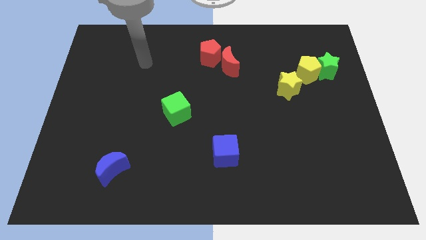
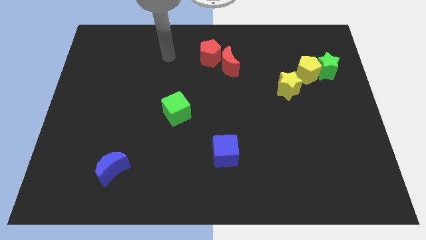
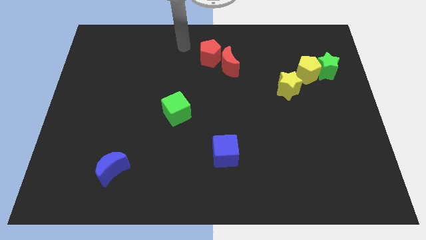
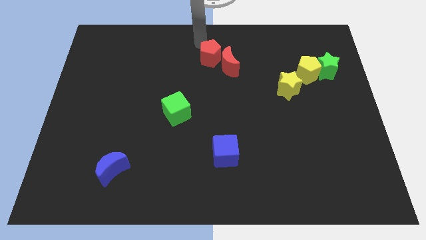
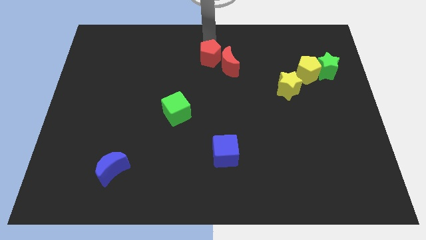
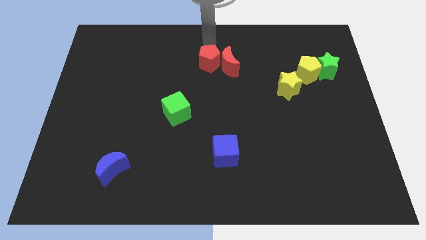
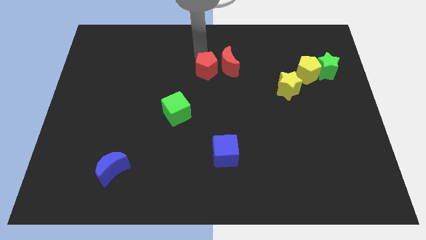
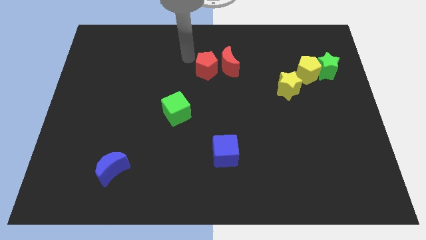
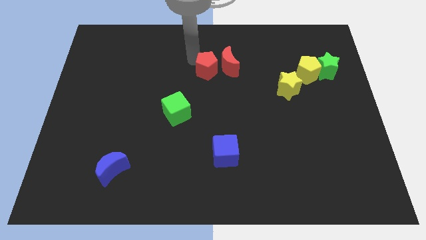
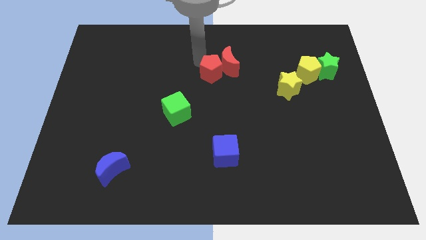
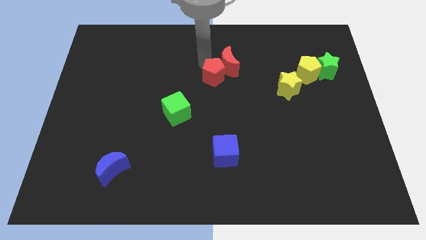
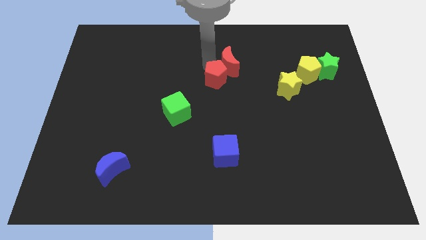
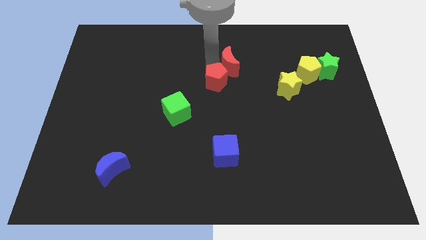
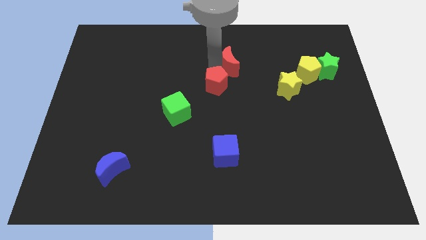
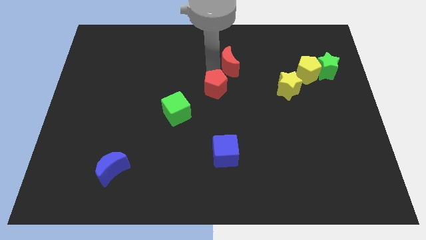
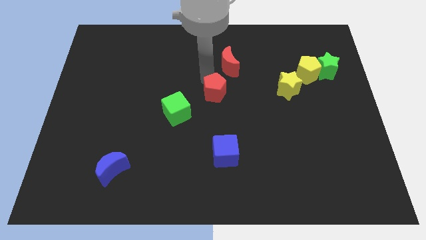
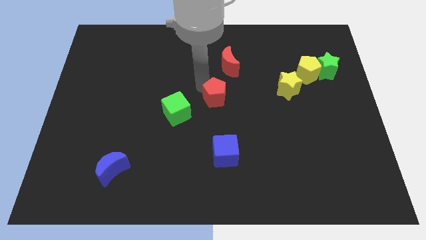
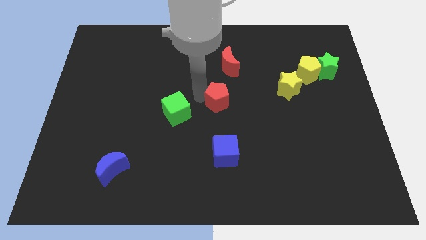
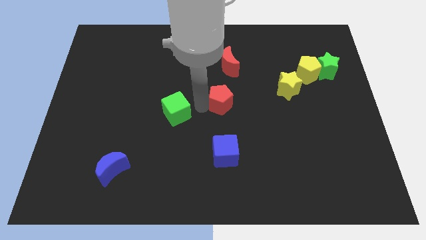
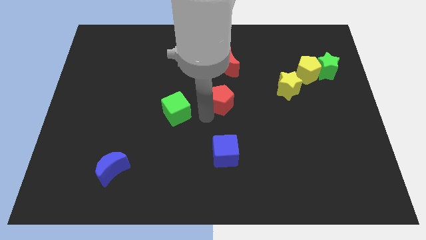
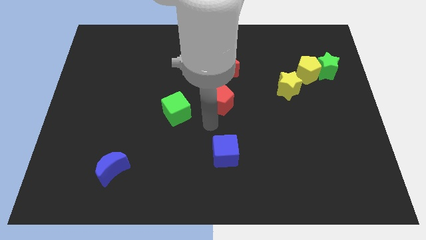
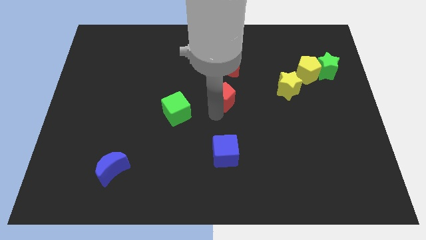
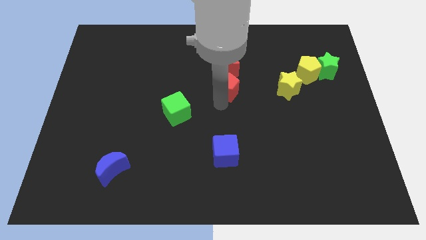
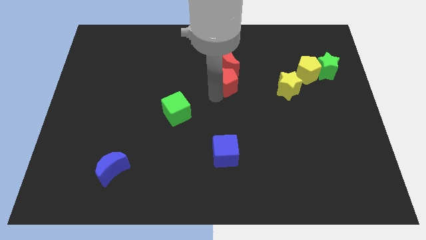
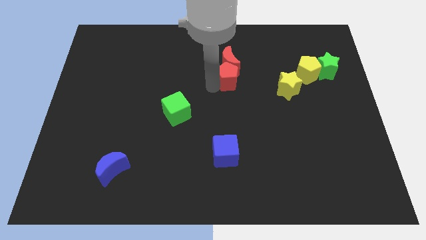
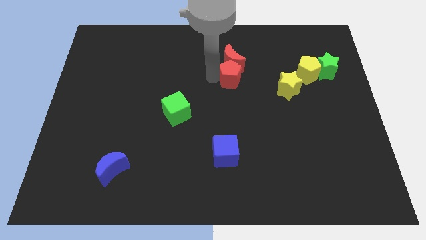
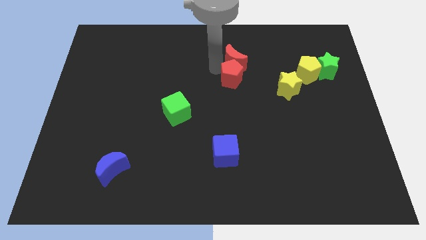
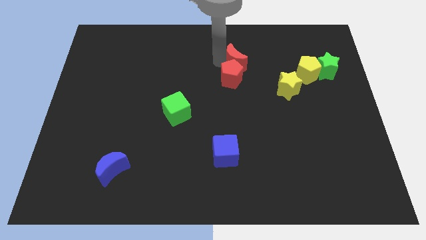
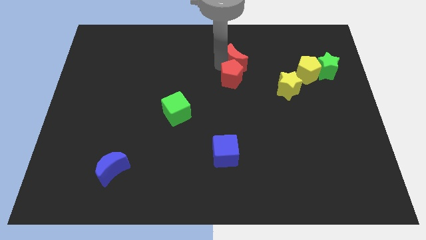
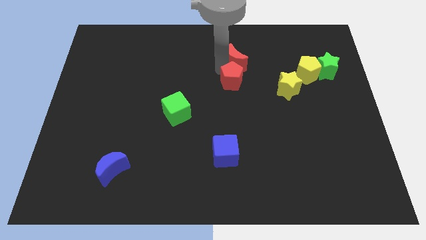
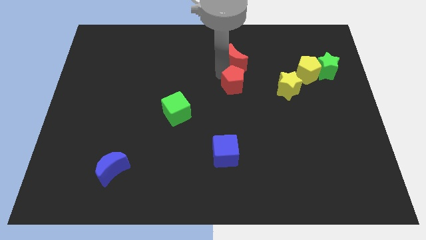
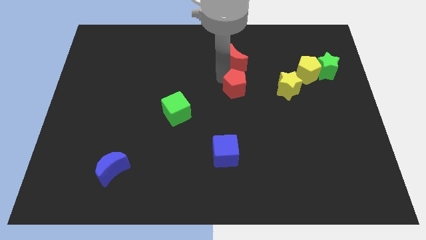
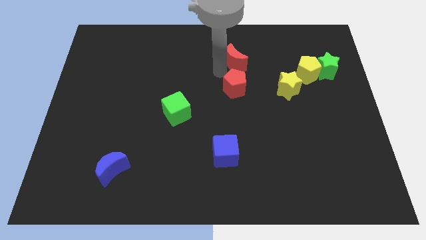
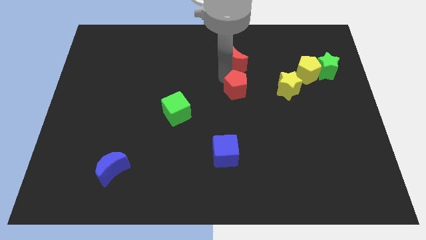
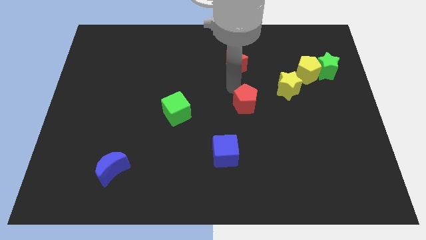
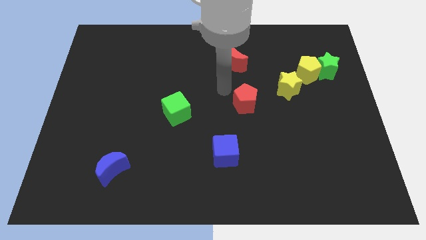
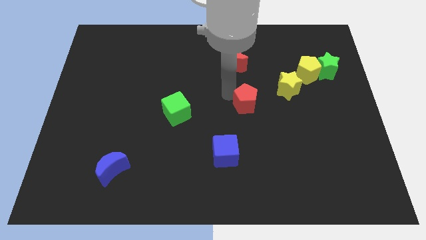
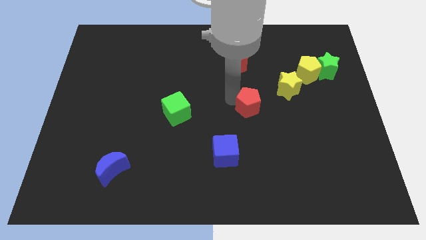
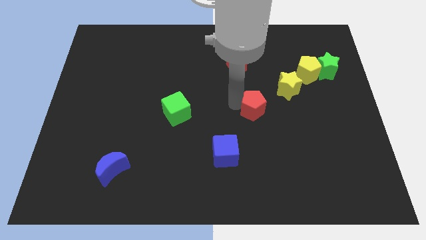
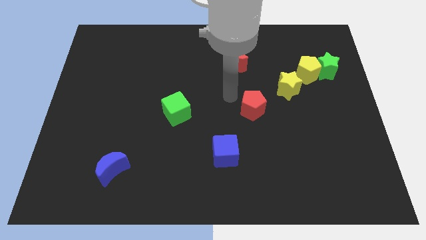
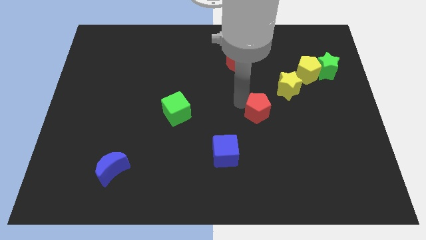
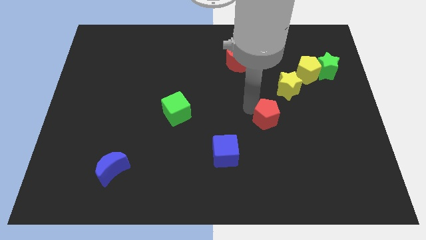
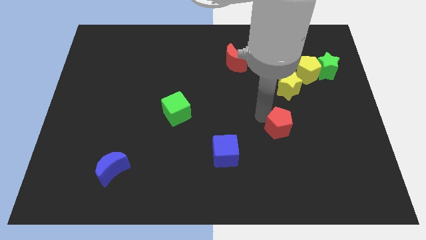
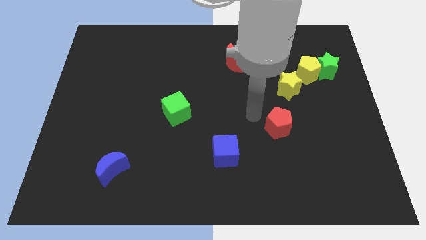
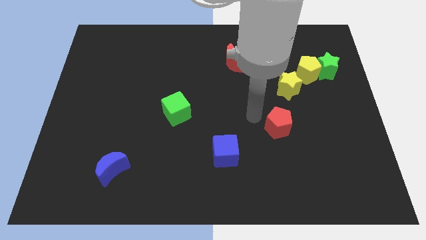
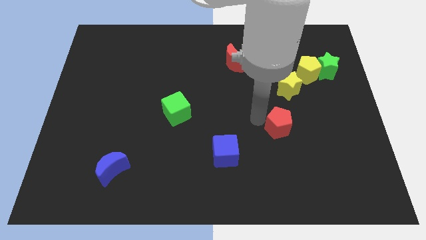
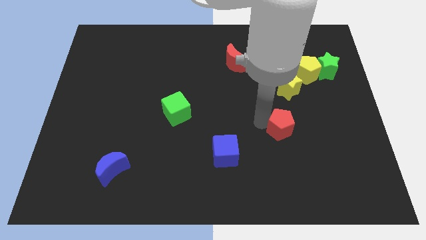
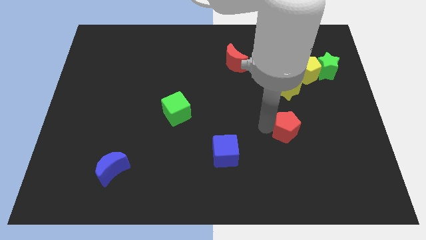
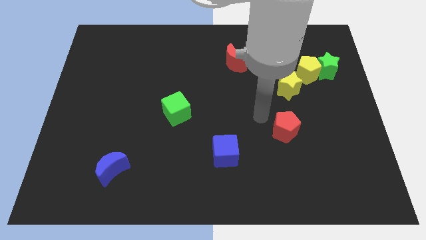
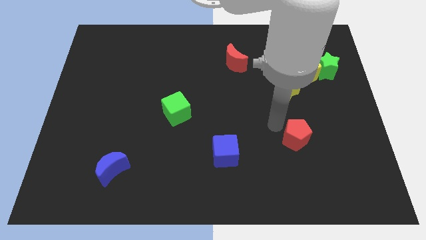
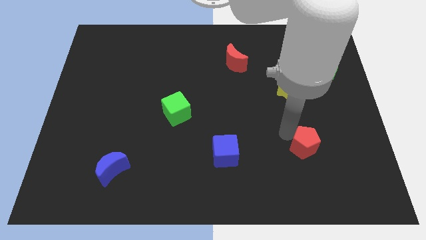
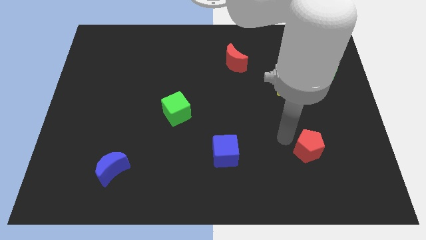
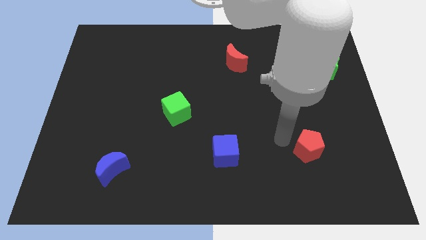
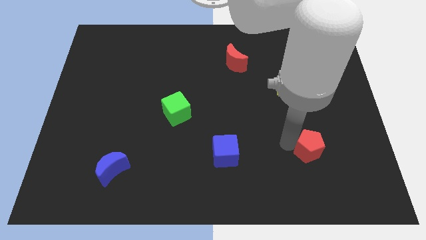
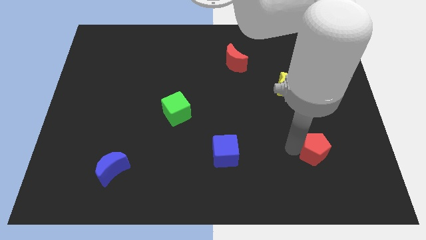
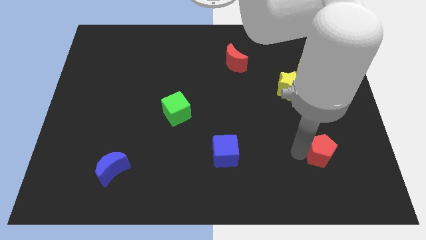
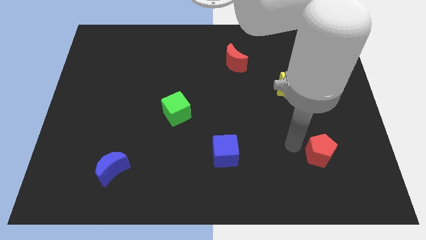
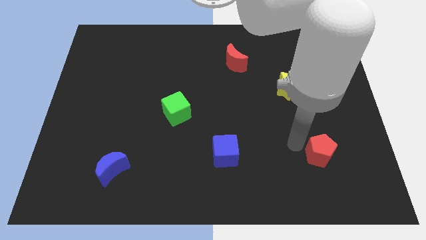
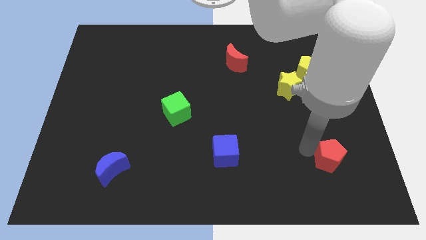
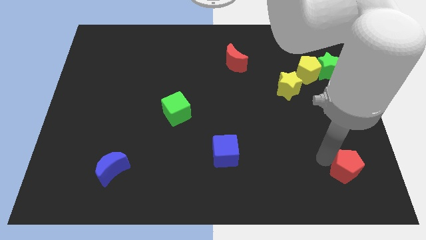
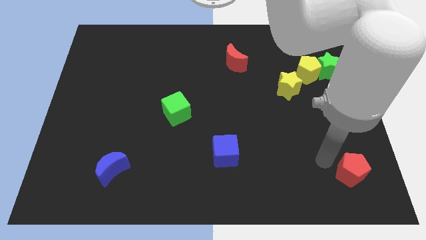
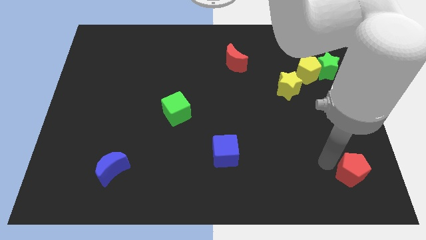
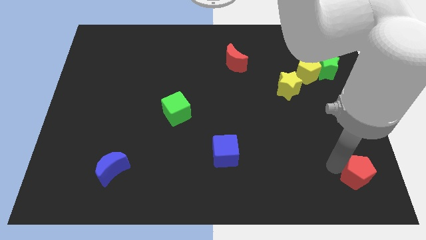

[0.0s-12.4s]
slide the red pentagon to the bottom right corner

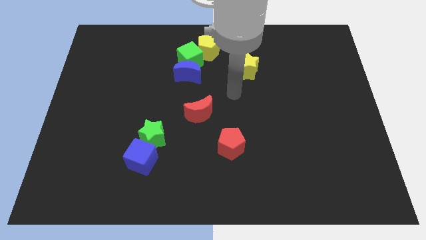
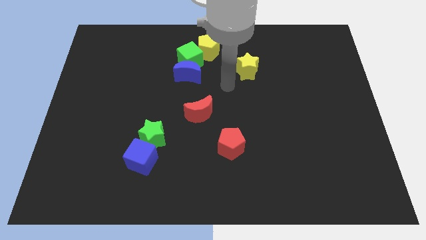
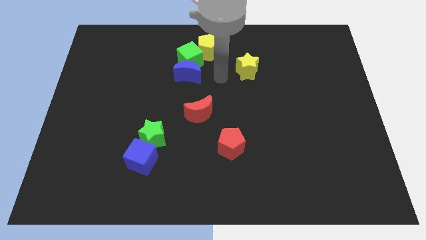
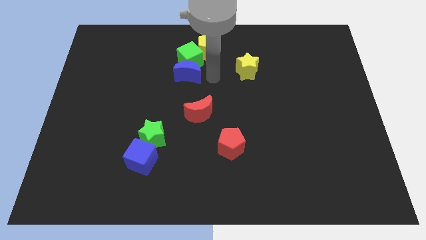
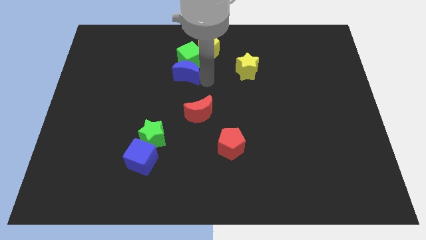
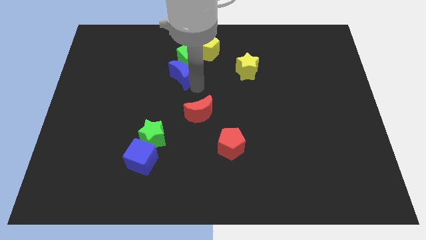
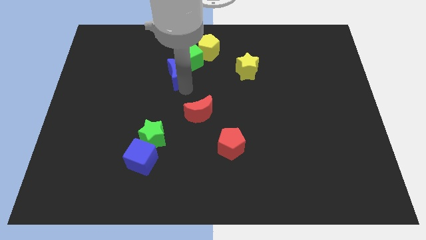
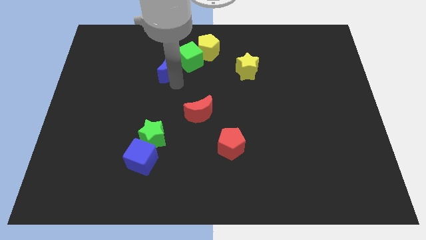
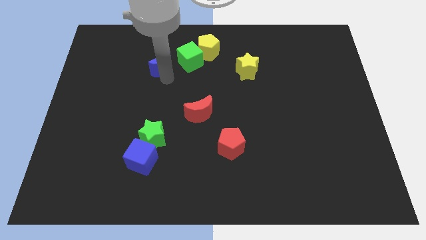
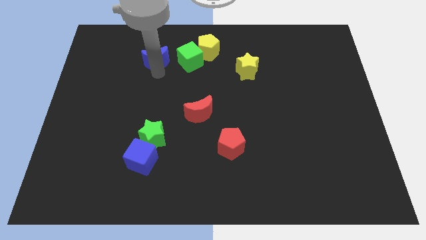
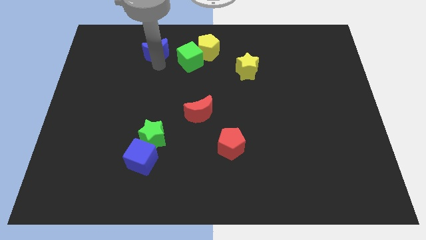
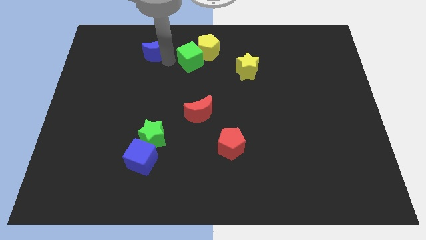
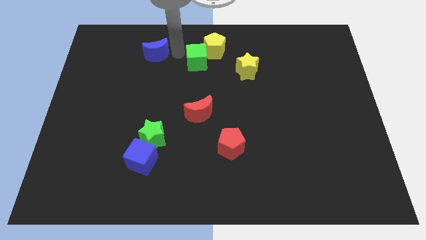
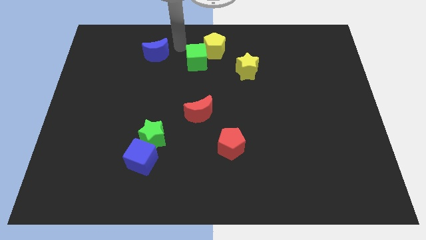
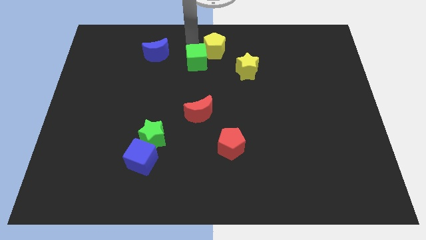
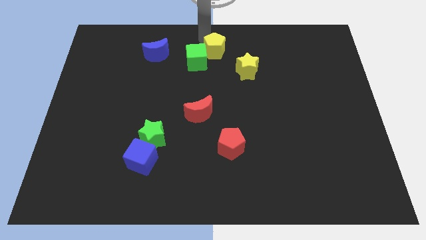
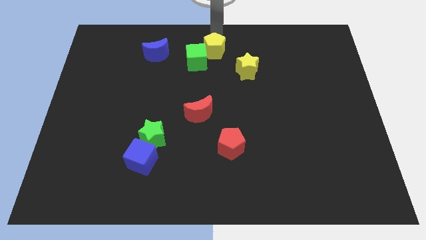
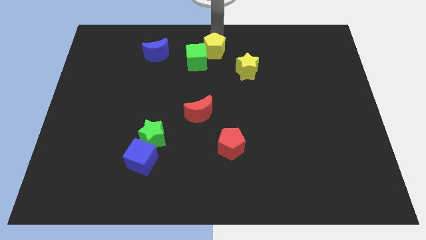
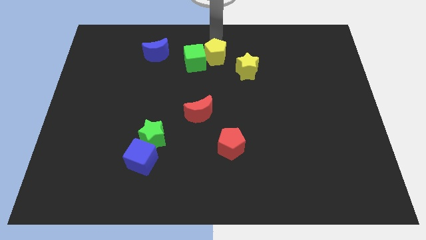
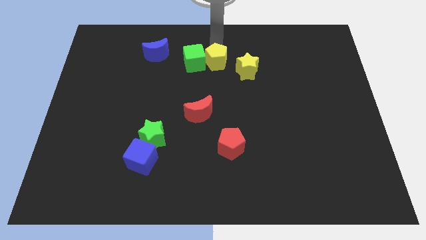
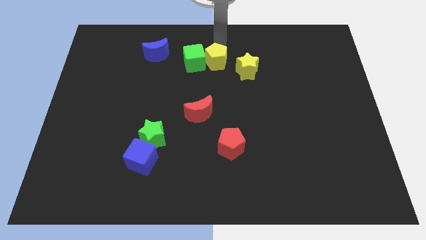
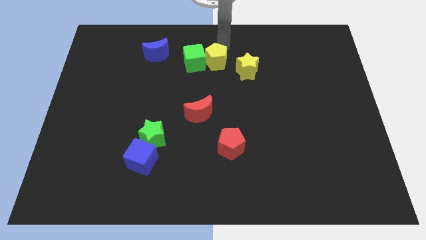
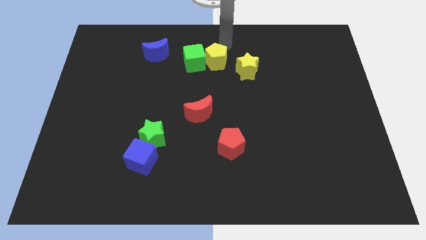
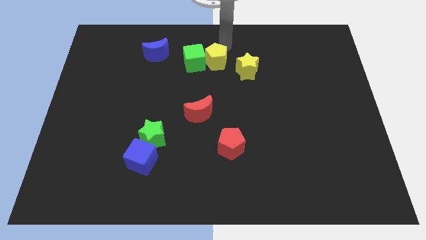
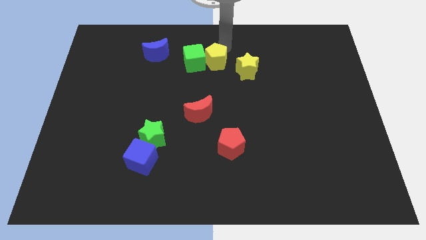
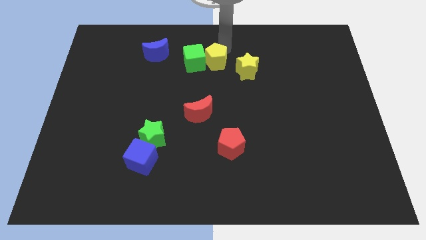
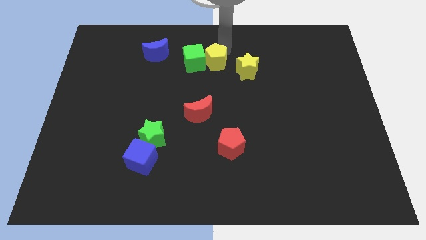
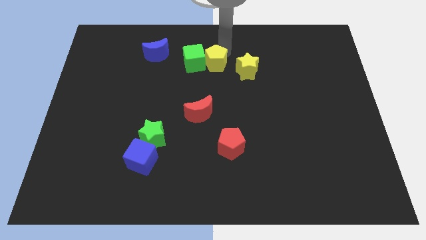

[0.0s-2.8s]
slide the yellow pentagon to the center of the board
